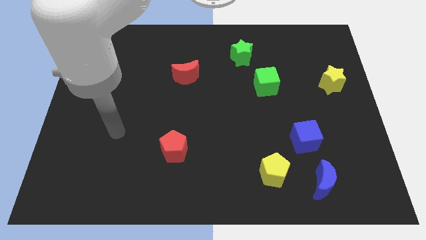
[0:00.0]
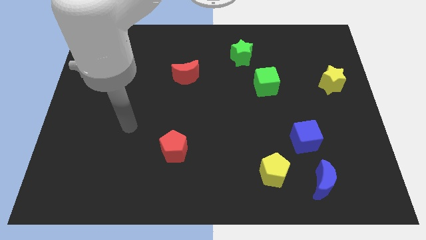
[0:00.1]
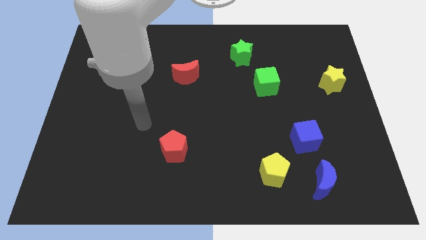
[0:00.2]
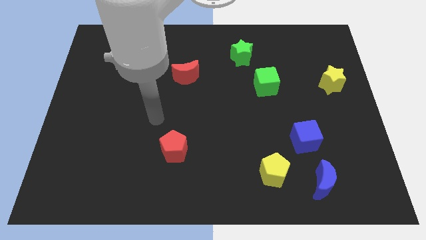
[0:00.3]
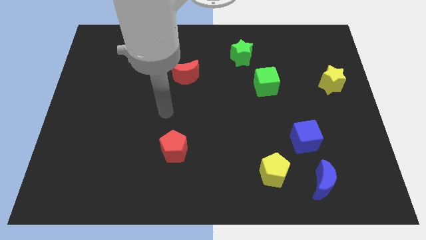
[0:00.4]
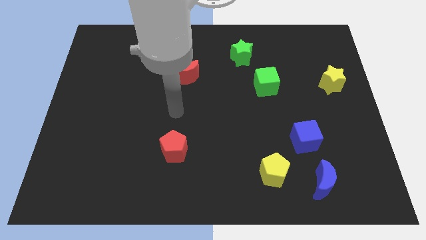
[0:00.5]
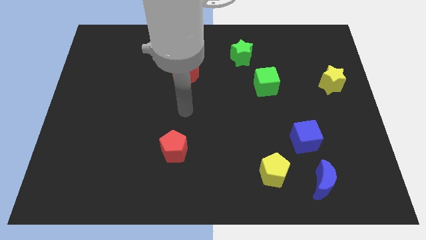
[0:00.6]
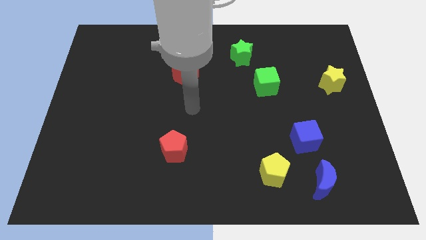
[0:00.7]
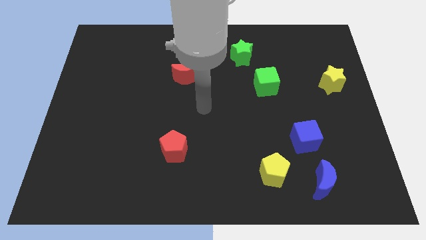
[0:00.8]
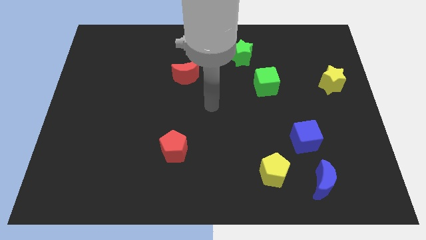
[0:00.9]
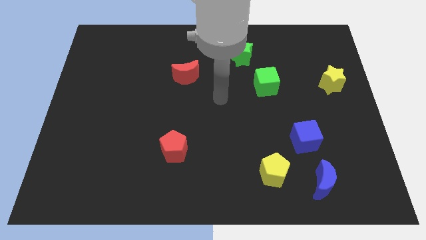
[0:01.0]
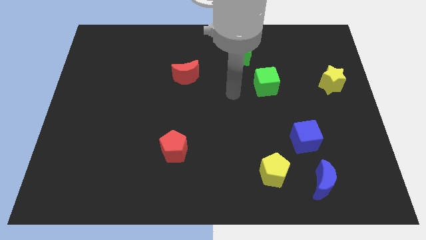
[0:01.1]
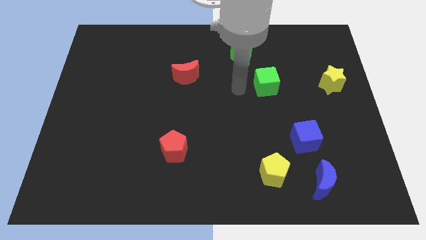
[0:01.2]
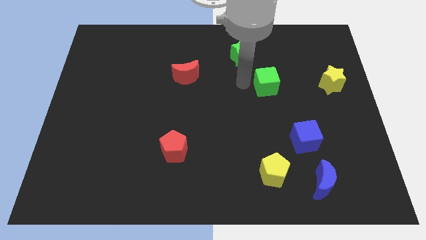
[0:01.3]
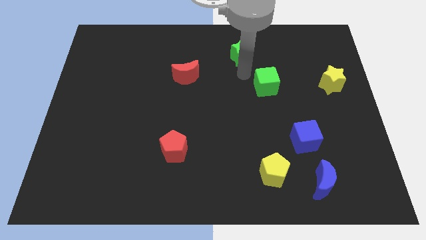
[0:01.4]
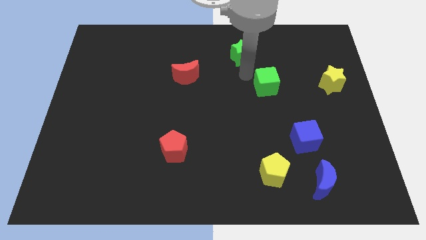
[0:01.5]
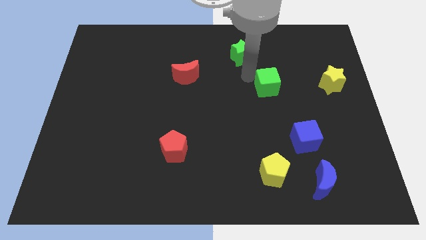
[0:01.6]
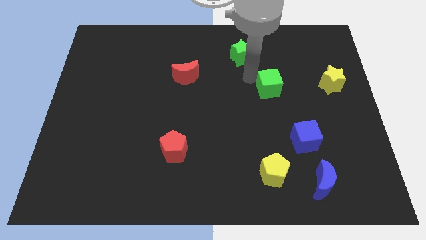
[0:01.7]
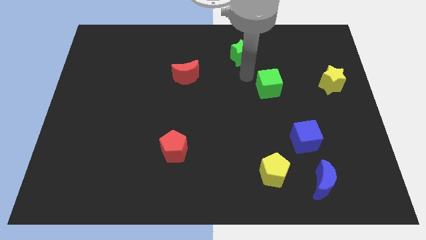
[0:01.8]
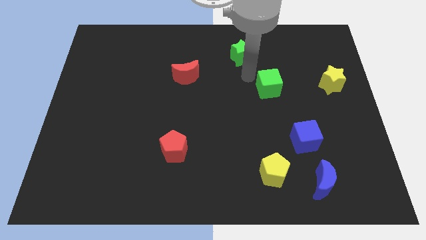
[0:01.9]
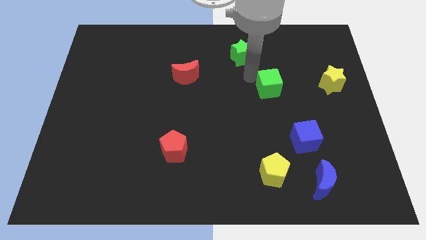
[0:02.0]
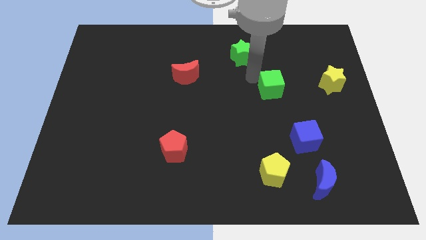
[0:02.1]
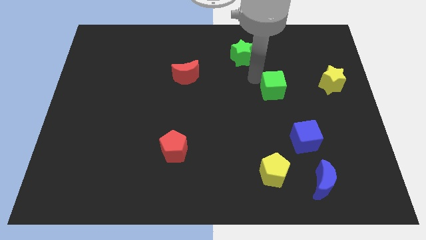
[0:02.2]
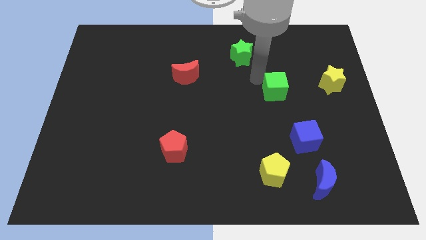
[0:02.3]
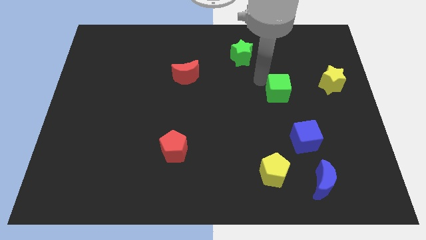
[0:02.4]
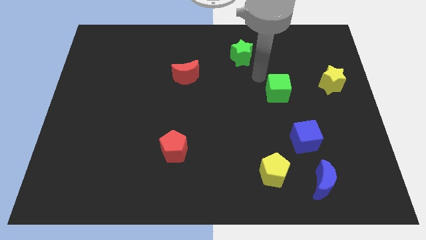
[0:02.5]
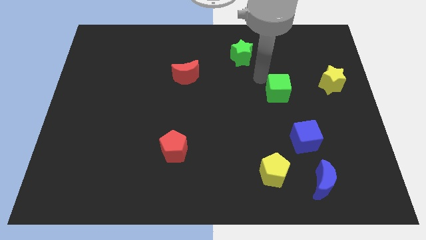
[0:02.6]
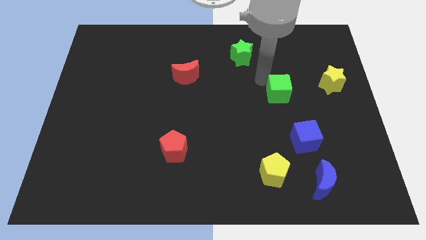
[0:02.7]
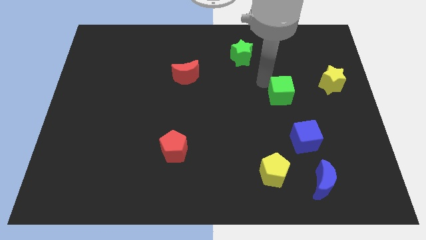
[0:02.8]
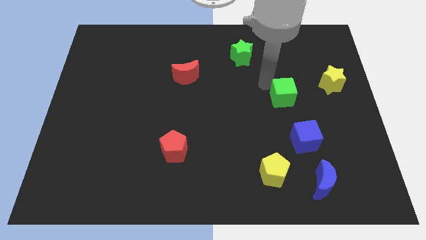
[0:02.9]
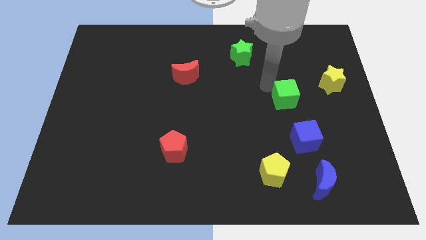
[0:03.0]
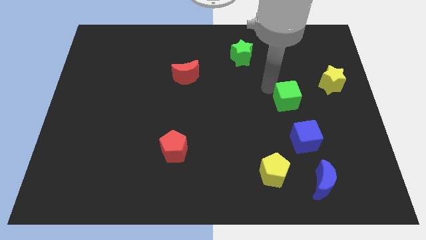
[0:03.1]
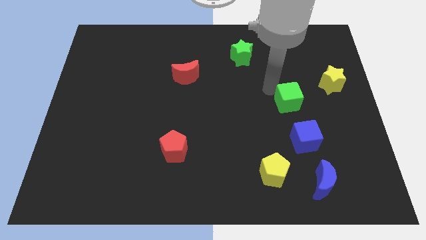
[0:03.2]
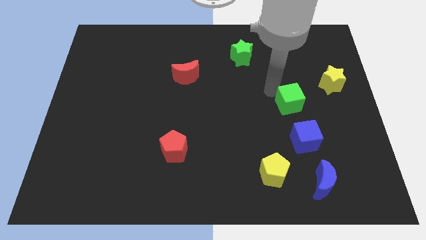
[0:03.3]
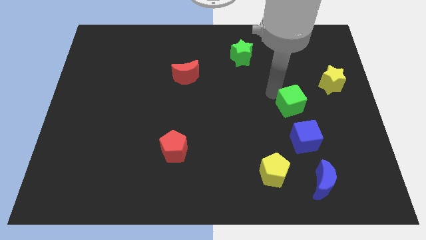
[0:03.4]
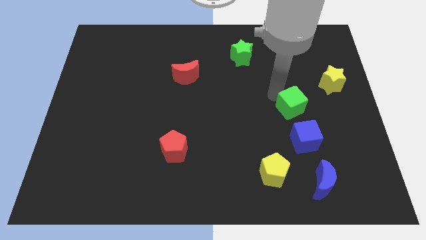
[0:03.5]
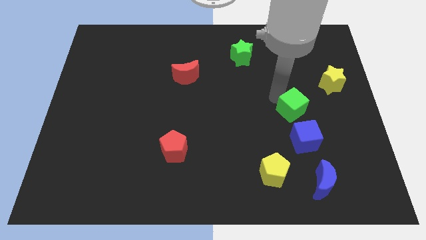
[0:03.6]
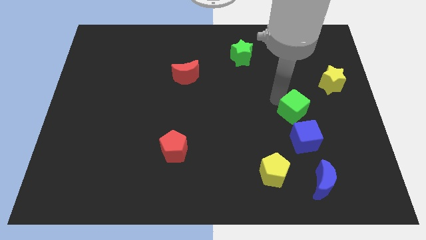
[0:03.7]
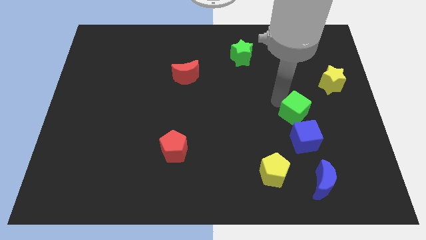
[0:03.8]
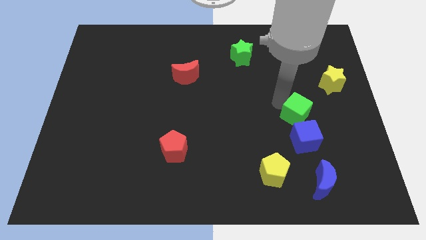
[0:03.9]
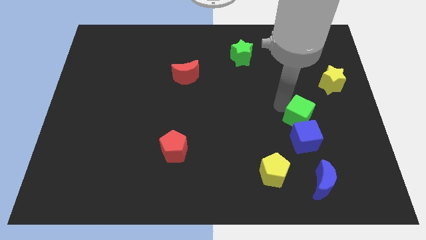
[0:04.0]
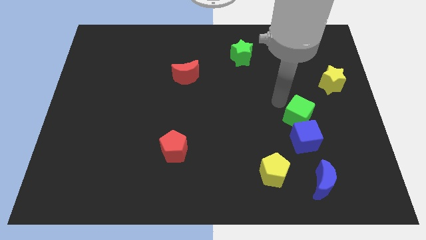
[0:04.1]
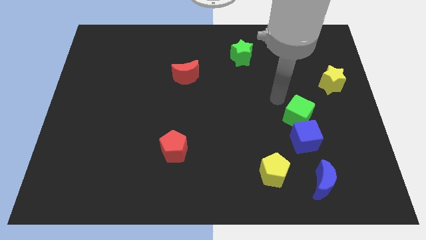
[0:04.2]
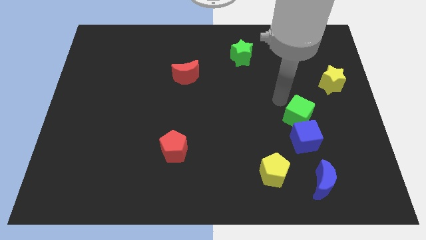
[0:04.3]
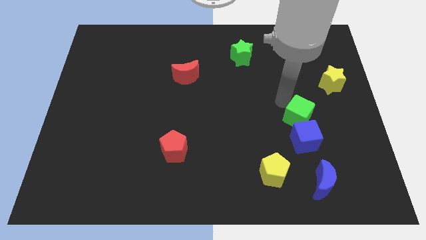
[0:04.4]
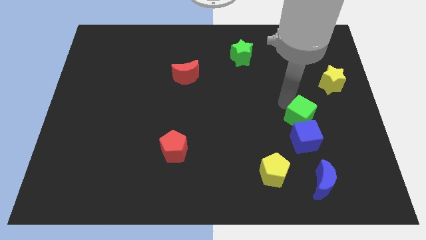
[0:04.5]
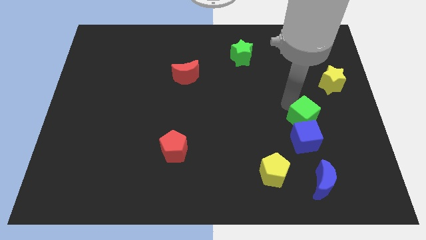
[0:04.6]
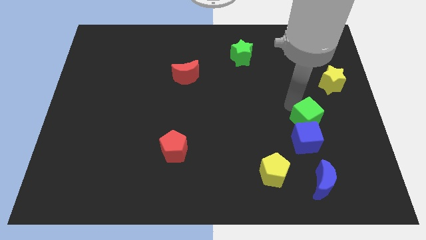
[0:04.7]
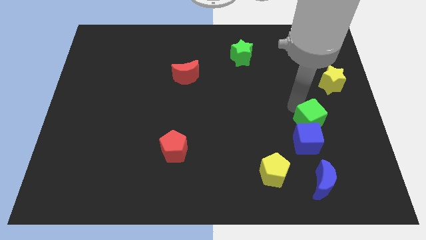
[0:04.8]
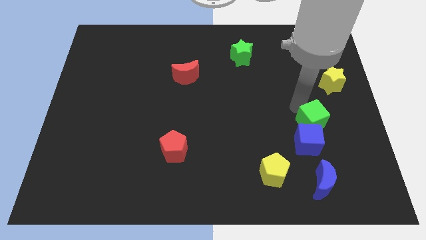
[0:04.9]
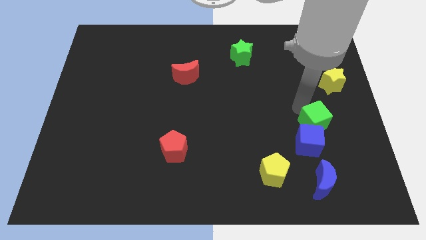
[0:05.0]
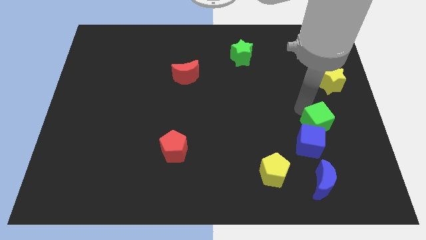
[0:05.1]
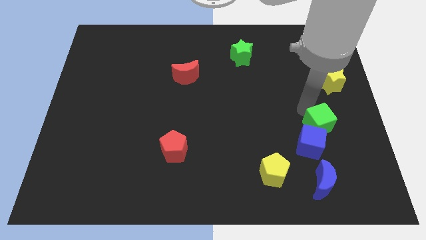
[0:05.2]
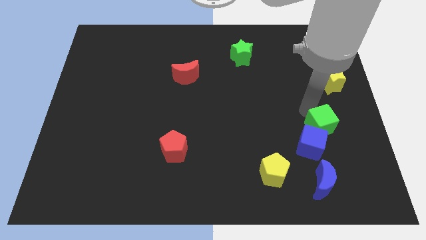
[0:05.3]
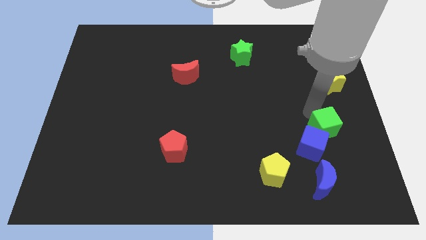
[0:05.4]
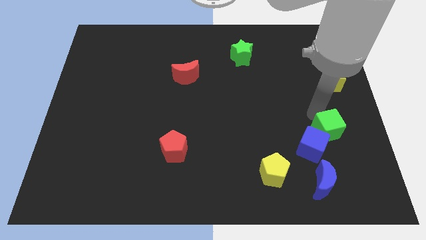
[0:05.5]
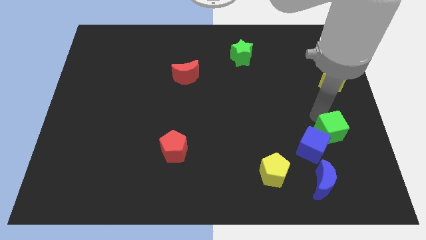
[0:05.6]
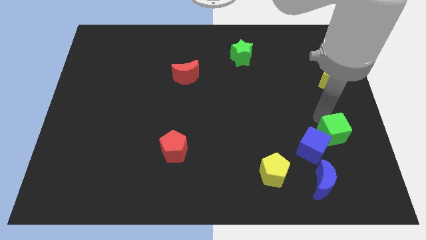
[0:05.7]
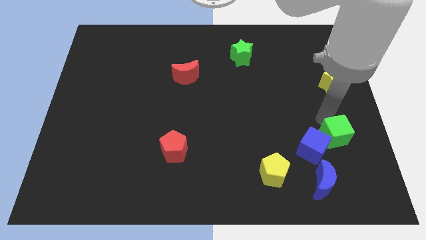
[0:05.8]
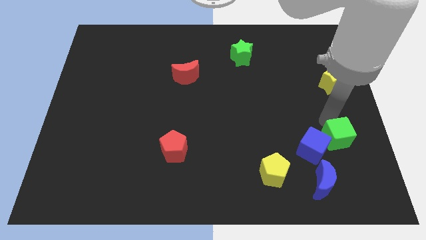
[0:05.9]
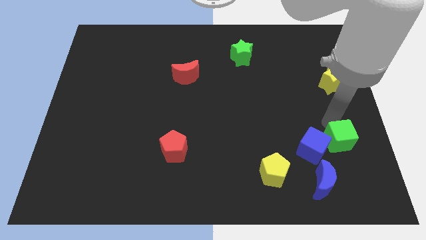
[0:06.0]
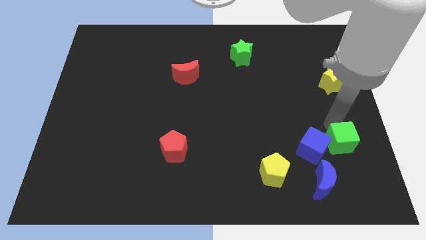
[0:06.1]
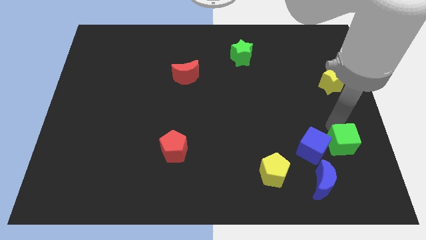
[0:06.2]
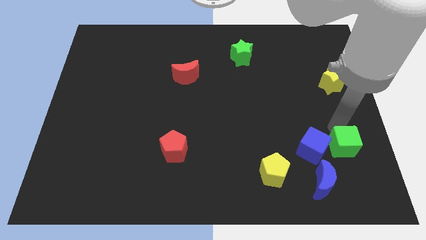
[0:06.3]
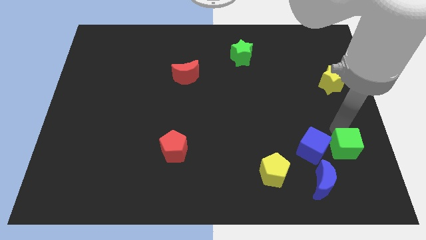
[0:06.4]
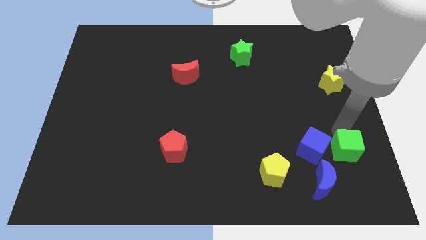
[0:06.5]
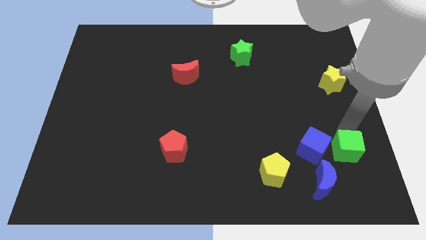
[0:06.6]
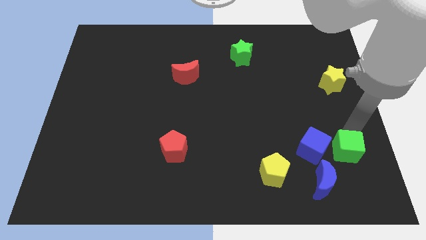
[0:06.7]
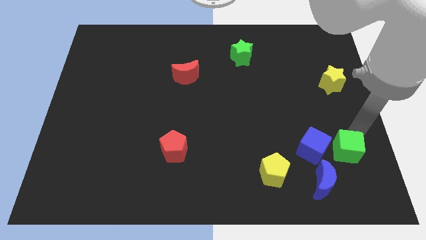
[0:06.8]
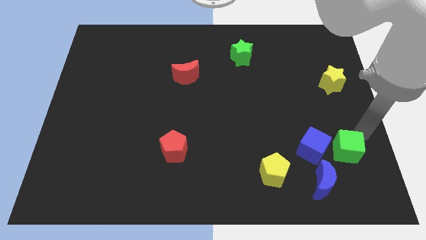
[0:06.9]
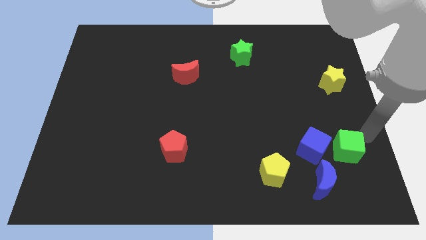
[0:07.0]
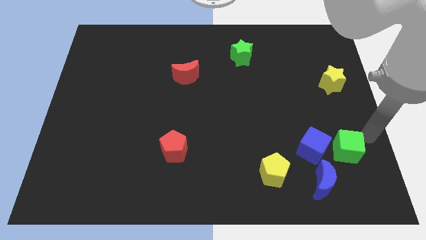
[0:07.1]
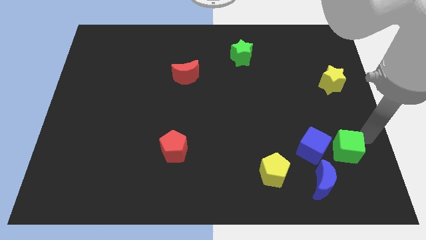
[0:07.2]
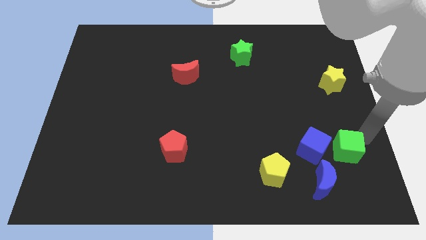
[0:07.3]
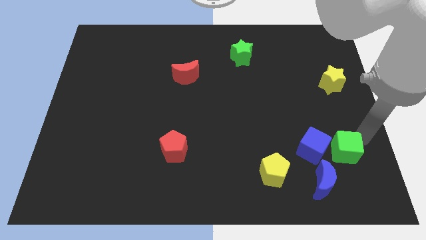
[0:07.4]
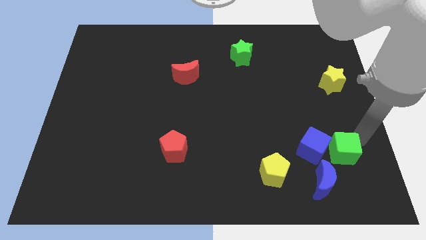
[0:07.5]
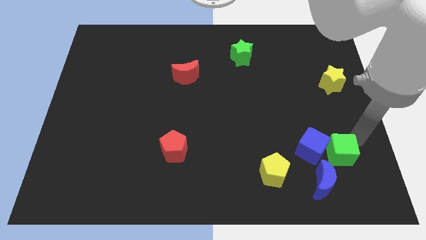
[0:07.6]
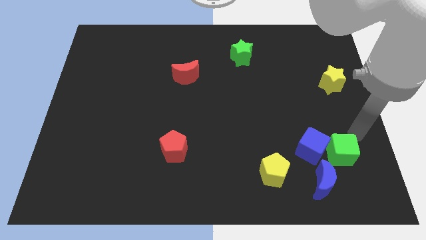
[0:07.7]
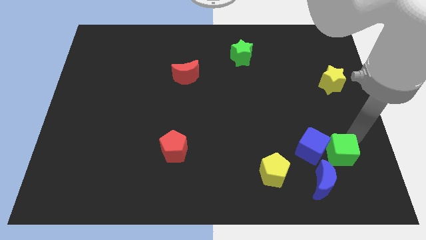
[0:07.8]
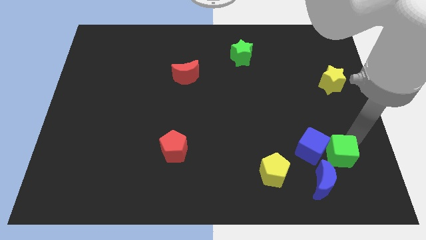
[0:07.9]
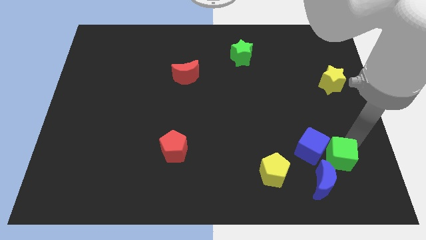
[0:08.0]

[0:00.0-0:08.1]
push the green cube to the right side of the yellow pentagon
